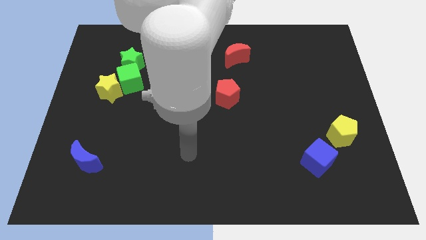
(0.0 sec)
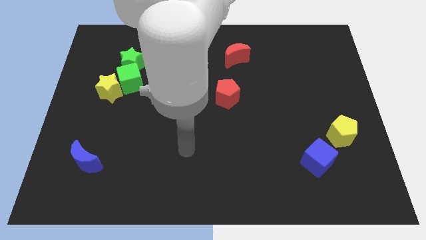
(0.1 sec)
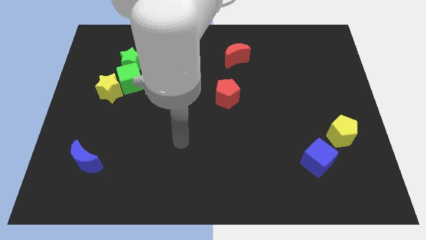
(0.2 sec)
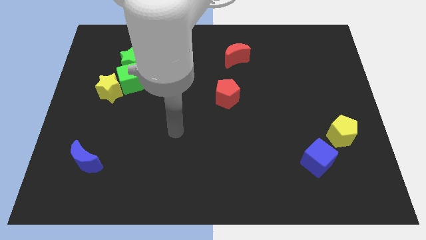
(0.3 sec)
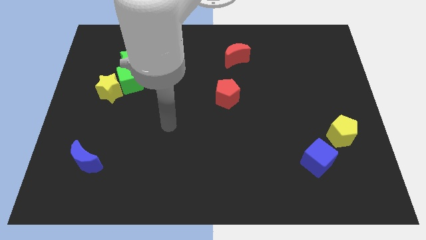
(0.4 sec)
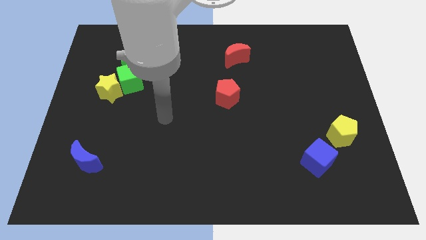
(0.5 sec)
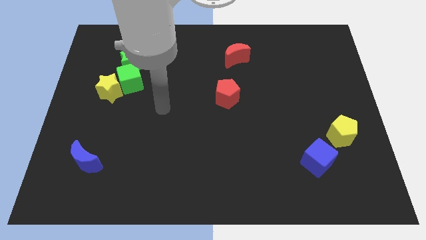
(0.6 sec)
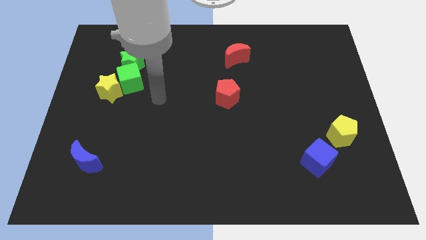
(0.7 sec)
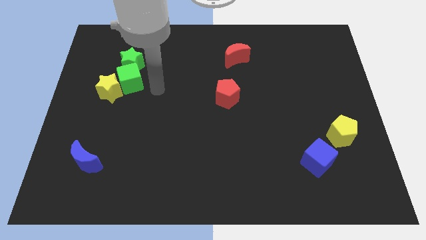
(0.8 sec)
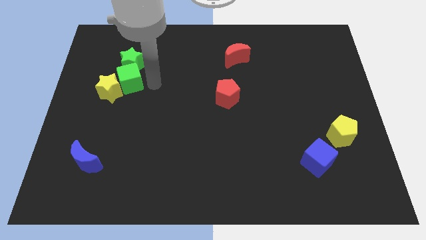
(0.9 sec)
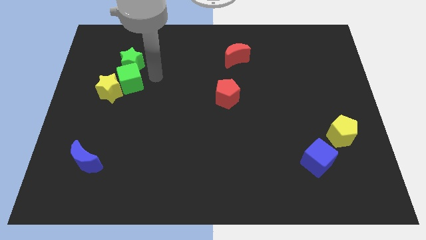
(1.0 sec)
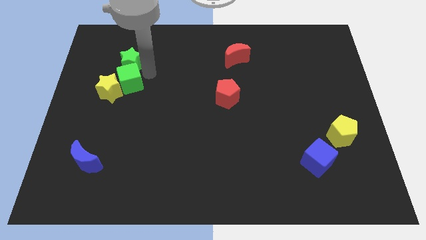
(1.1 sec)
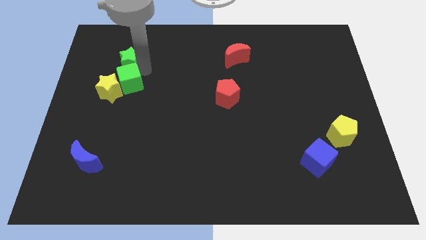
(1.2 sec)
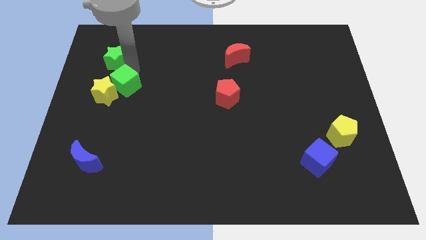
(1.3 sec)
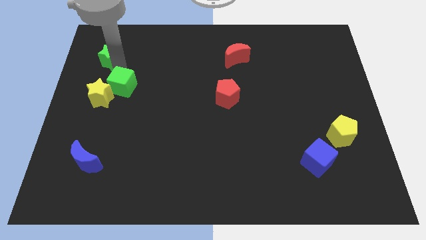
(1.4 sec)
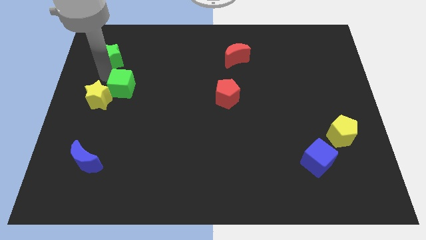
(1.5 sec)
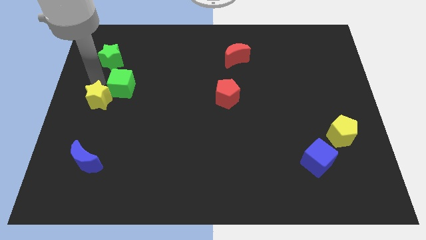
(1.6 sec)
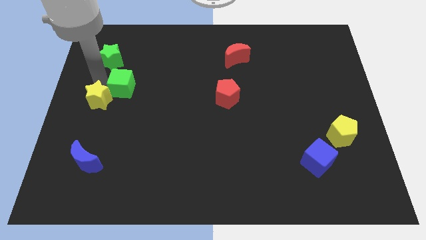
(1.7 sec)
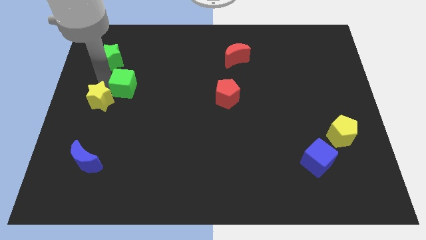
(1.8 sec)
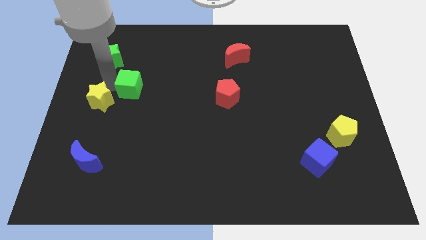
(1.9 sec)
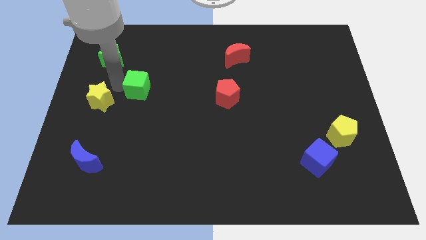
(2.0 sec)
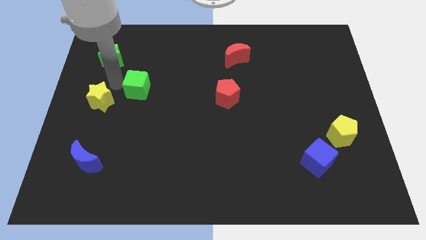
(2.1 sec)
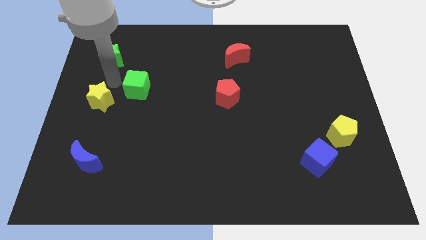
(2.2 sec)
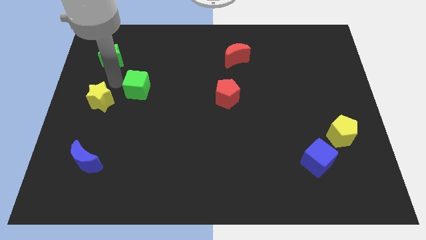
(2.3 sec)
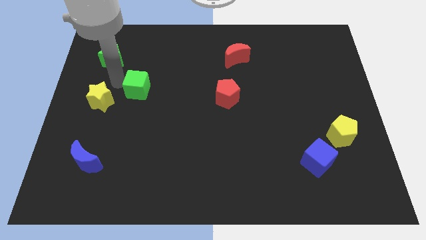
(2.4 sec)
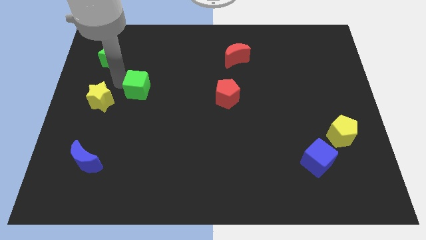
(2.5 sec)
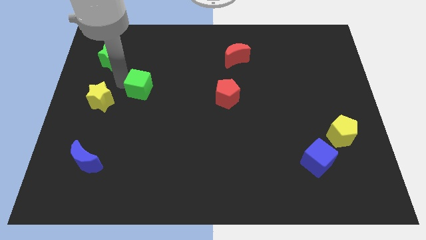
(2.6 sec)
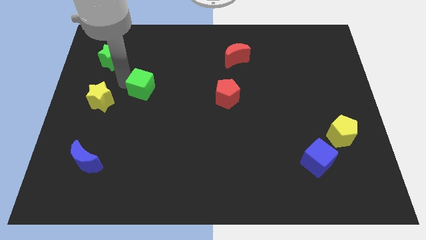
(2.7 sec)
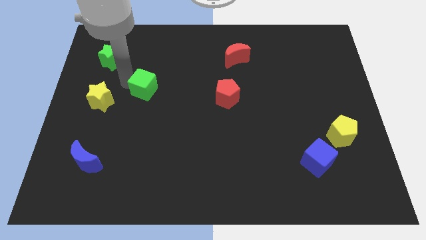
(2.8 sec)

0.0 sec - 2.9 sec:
separate the green cube from the yellow star and green star

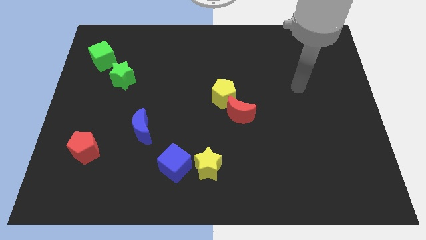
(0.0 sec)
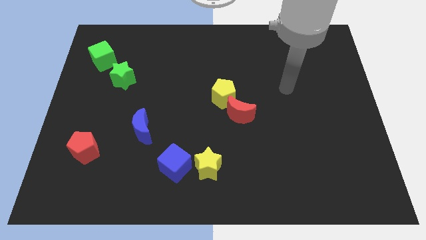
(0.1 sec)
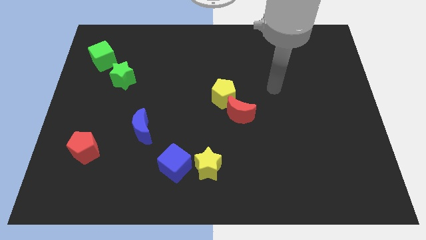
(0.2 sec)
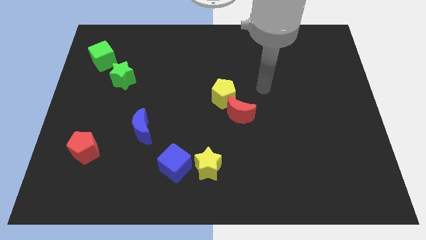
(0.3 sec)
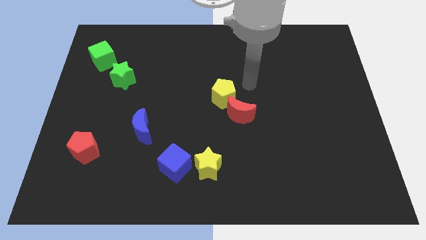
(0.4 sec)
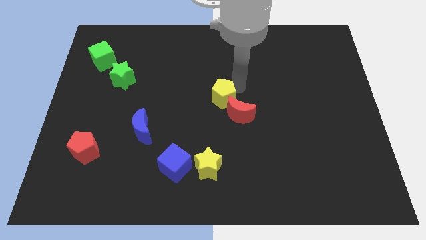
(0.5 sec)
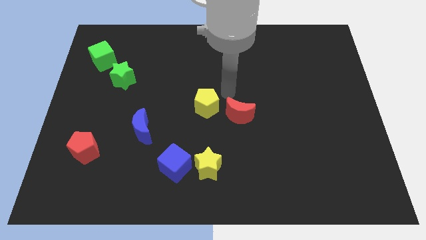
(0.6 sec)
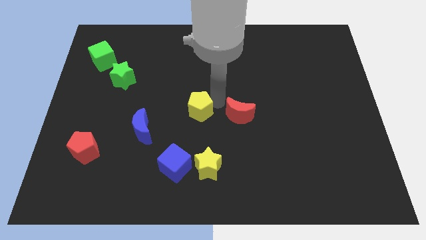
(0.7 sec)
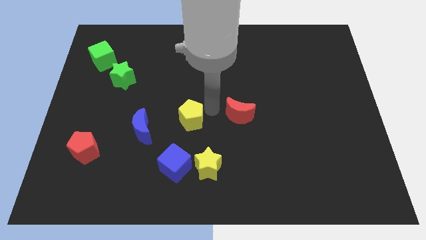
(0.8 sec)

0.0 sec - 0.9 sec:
move the red moon away from the yellow pentagon

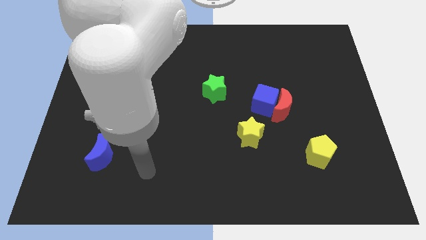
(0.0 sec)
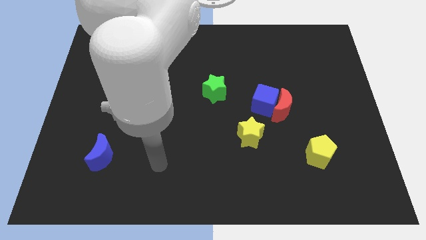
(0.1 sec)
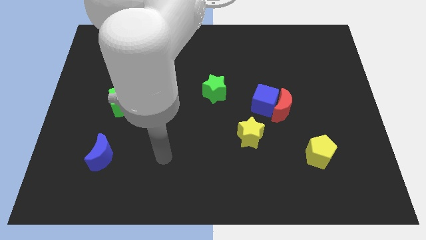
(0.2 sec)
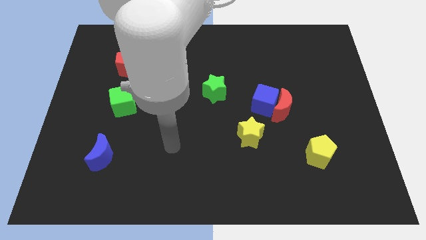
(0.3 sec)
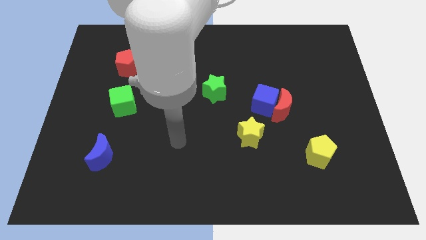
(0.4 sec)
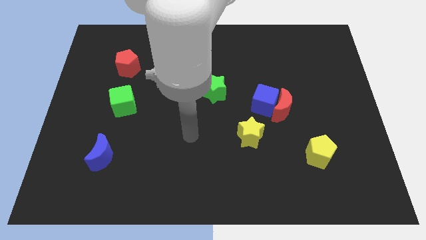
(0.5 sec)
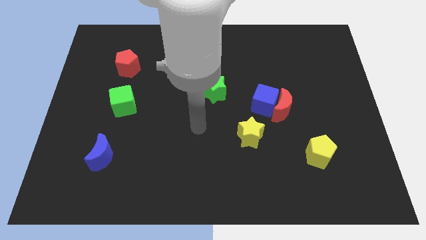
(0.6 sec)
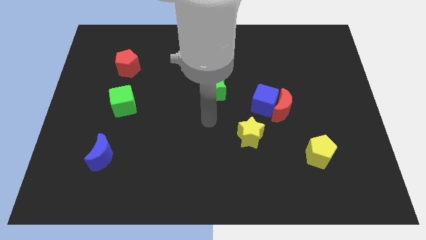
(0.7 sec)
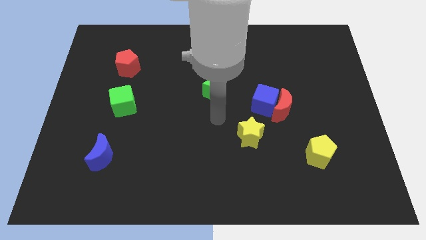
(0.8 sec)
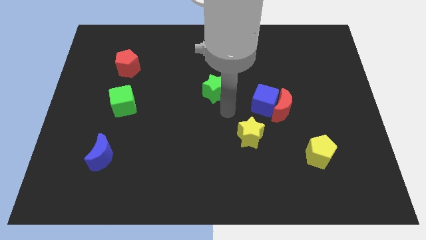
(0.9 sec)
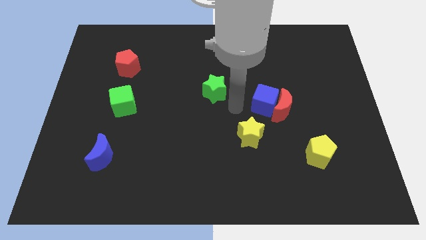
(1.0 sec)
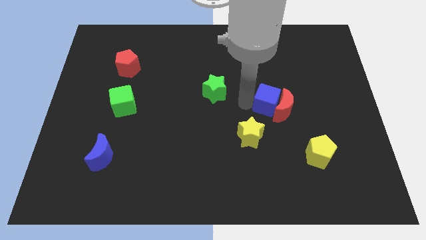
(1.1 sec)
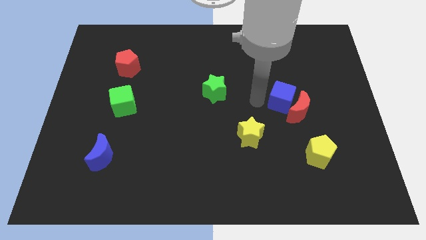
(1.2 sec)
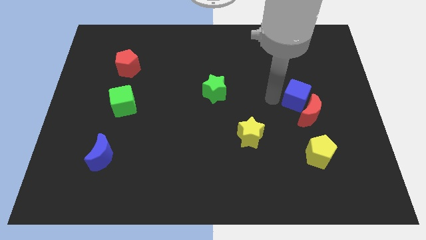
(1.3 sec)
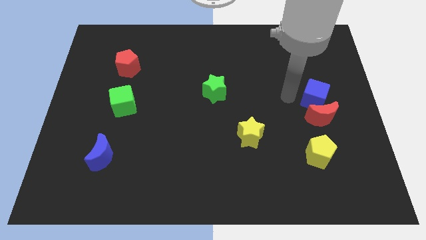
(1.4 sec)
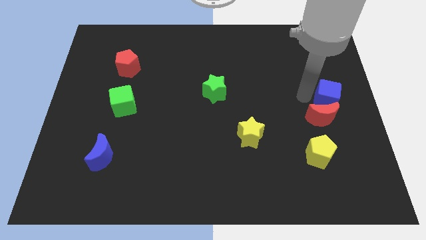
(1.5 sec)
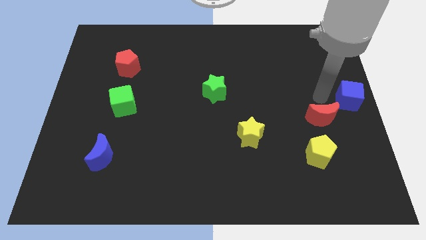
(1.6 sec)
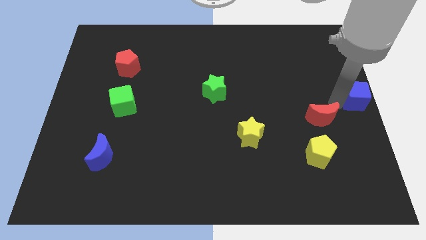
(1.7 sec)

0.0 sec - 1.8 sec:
separate the red moon from the blue cube

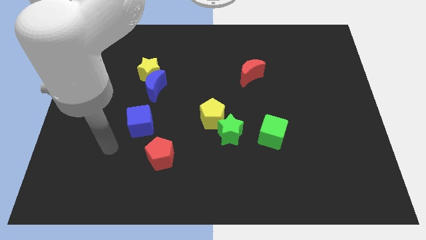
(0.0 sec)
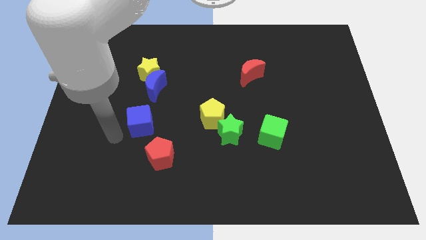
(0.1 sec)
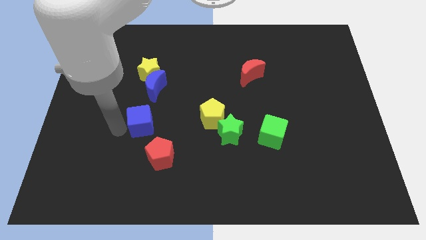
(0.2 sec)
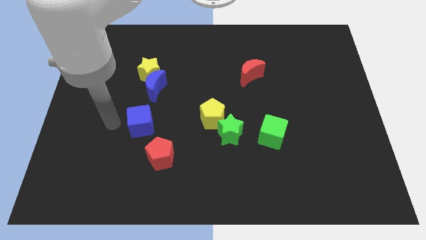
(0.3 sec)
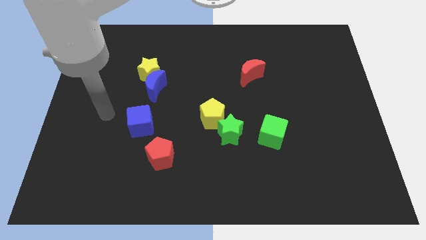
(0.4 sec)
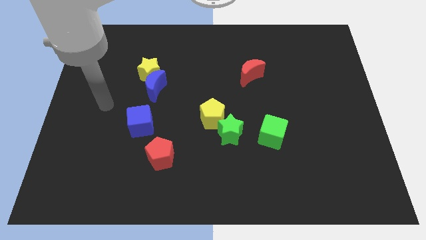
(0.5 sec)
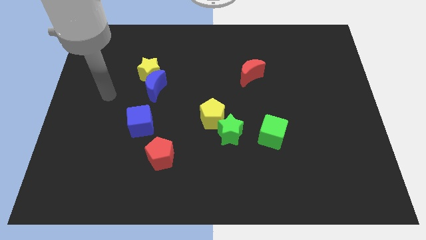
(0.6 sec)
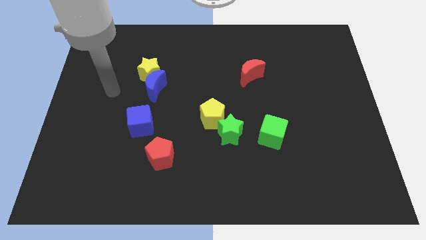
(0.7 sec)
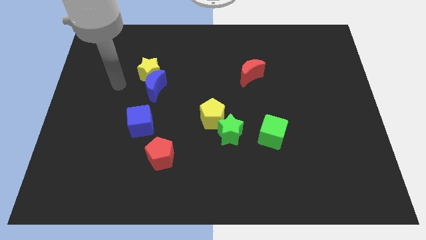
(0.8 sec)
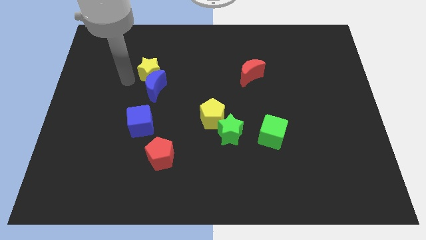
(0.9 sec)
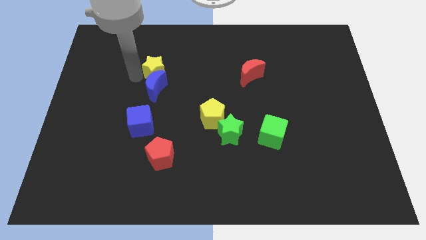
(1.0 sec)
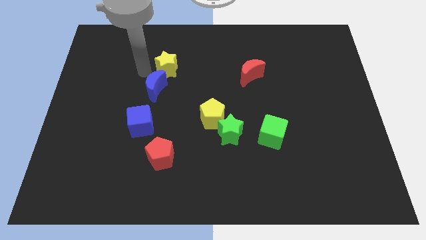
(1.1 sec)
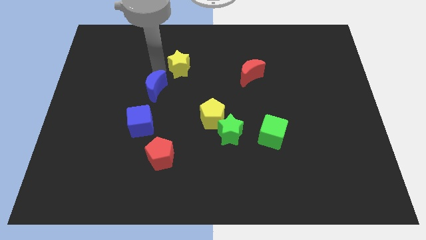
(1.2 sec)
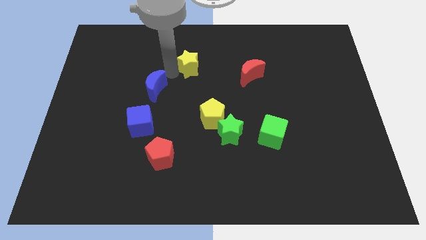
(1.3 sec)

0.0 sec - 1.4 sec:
separate the blue moon from the yellow star

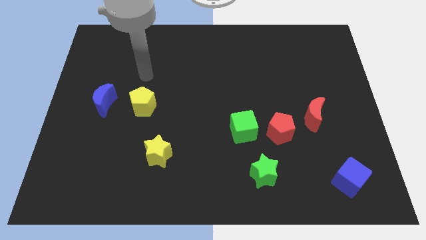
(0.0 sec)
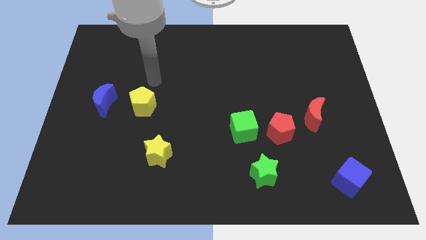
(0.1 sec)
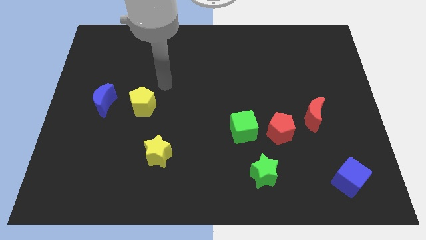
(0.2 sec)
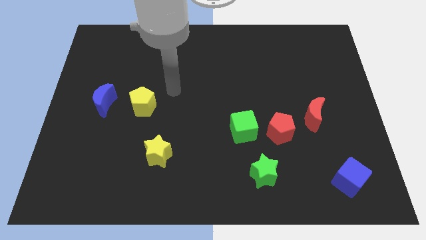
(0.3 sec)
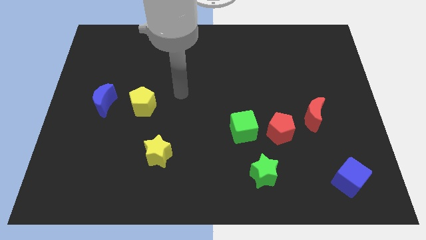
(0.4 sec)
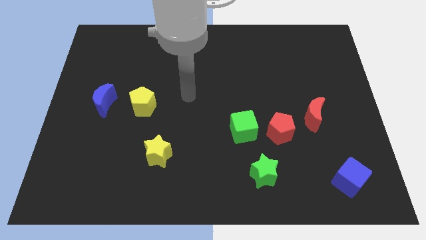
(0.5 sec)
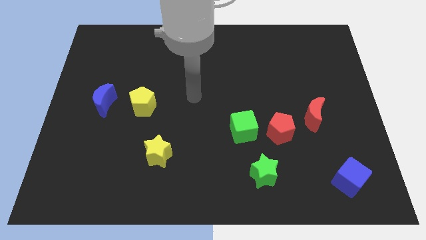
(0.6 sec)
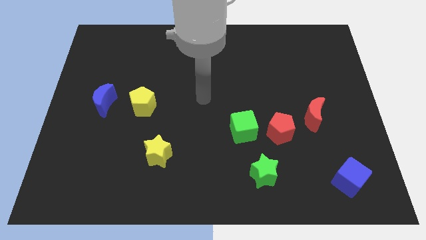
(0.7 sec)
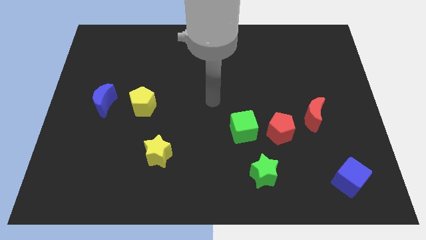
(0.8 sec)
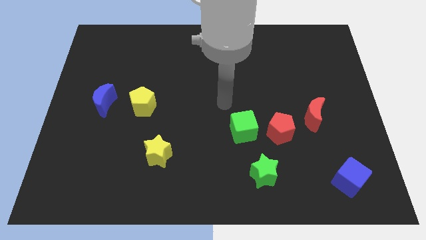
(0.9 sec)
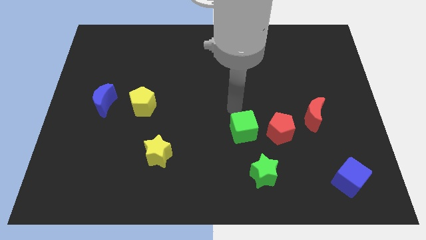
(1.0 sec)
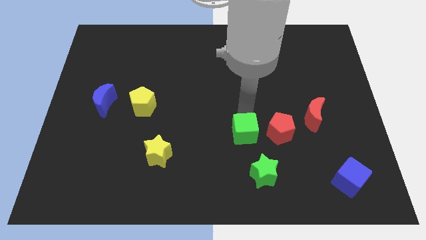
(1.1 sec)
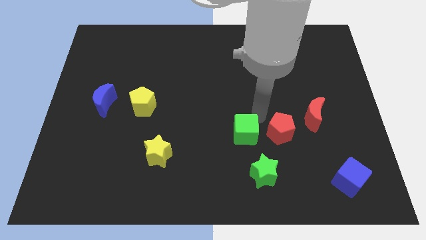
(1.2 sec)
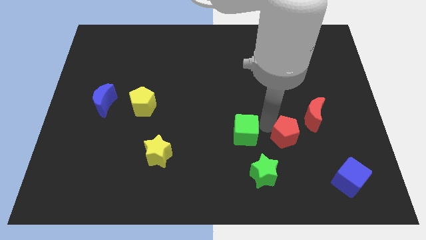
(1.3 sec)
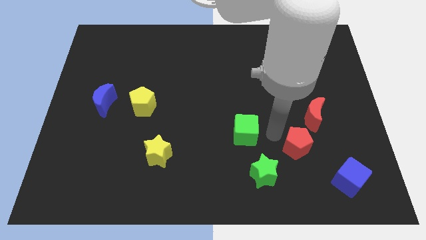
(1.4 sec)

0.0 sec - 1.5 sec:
separate the green cube from the red pentagon
